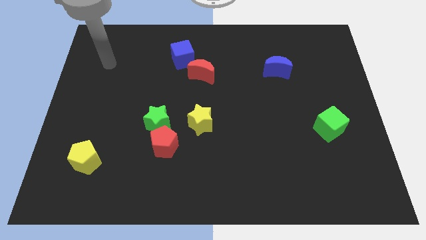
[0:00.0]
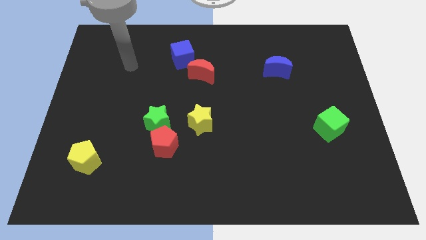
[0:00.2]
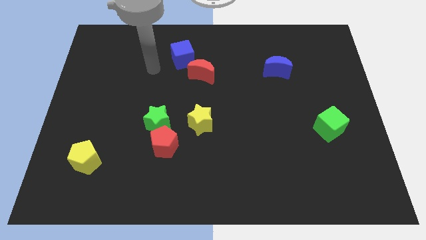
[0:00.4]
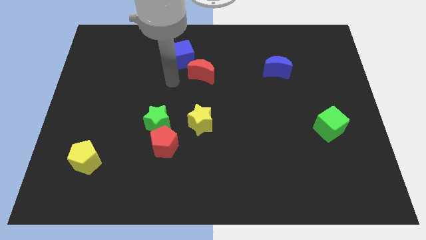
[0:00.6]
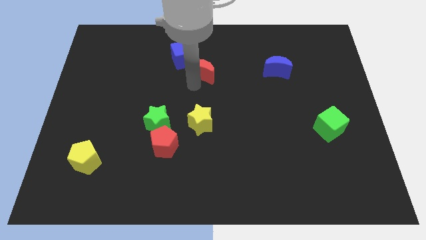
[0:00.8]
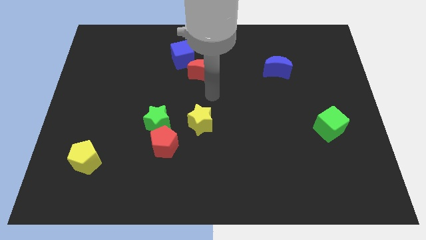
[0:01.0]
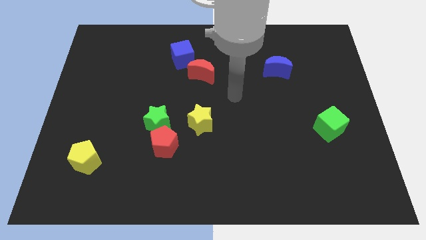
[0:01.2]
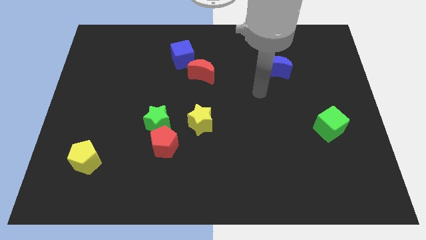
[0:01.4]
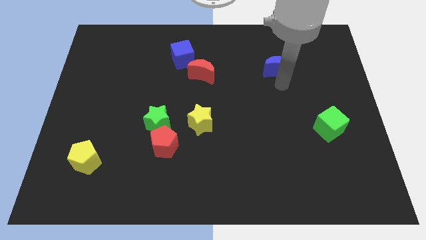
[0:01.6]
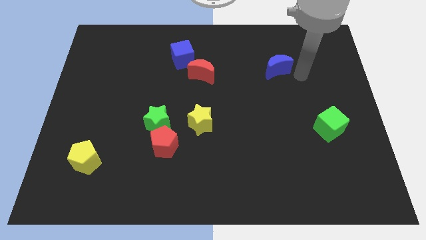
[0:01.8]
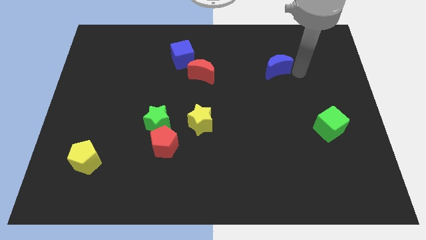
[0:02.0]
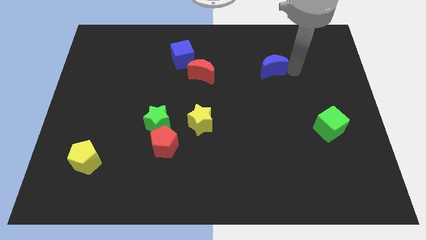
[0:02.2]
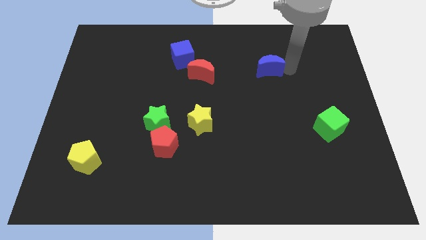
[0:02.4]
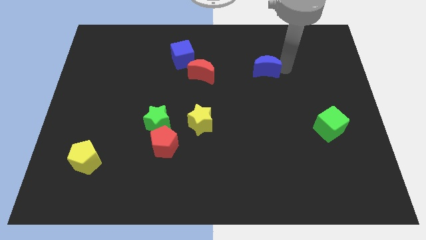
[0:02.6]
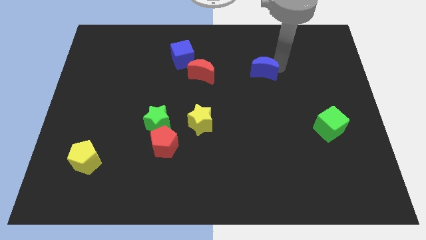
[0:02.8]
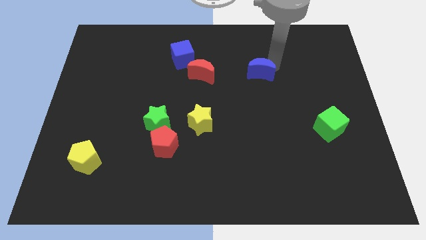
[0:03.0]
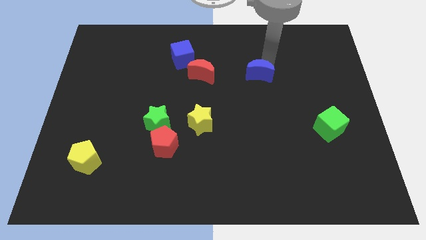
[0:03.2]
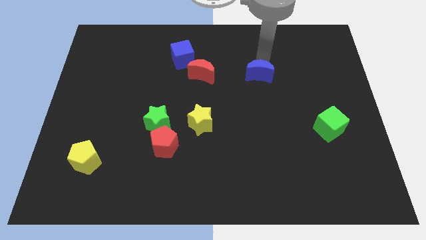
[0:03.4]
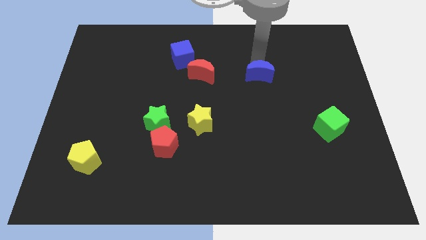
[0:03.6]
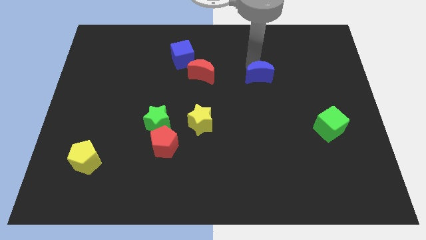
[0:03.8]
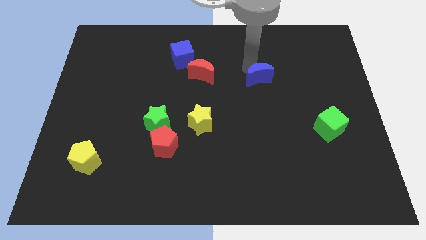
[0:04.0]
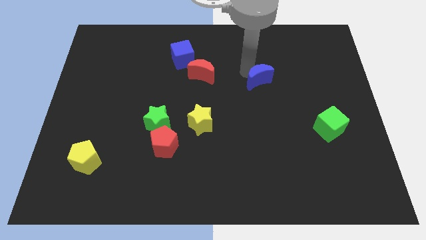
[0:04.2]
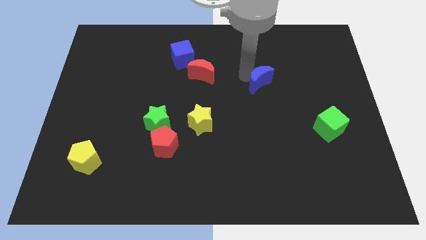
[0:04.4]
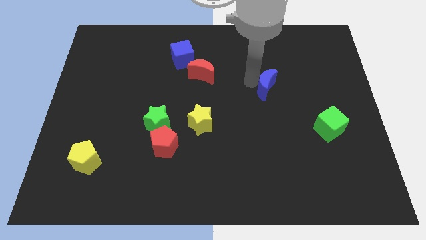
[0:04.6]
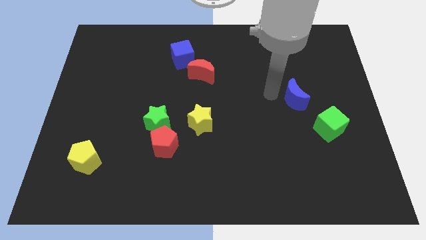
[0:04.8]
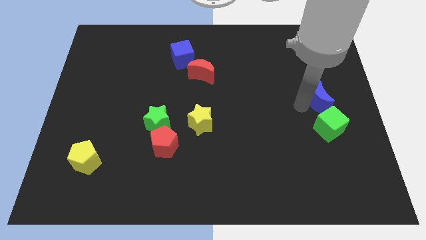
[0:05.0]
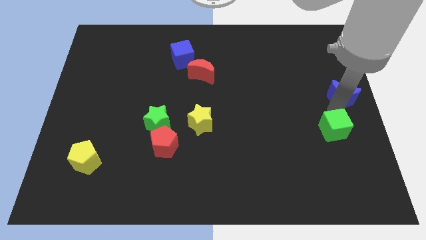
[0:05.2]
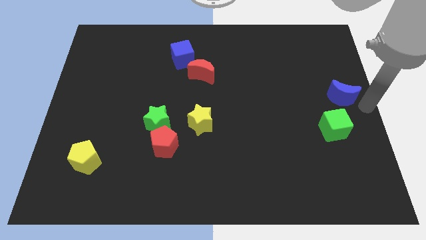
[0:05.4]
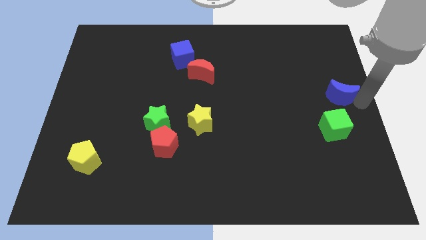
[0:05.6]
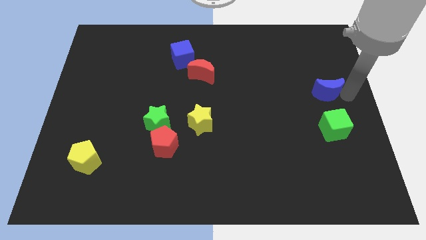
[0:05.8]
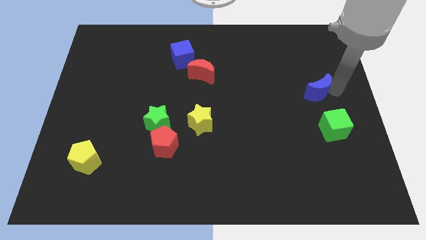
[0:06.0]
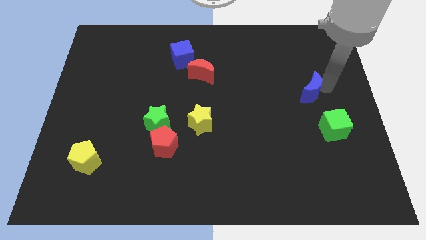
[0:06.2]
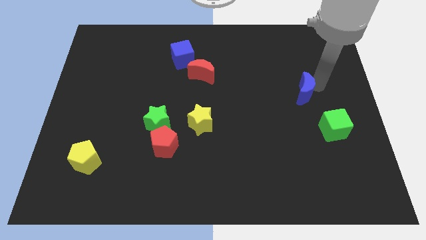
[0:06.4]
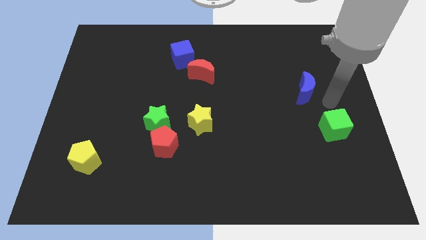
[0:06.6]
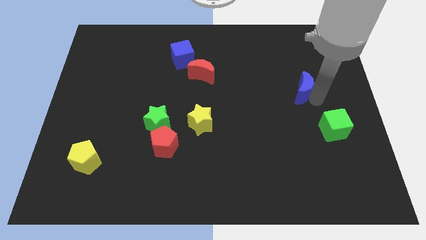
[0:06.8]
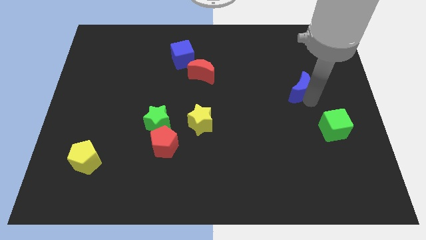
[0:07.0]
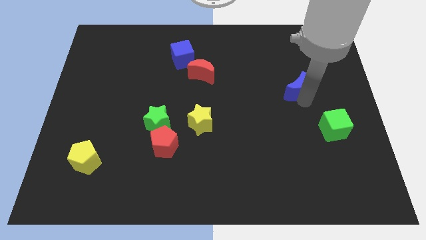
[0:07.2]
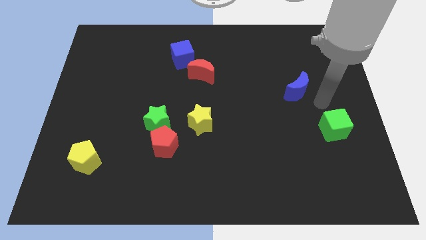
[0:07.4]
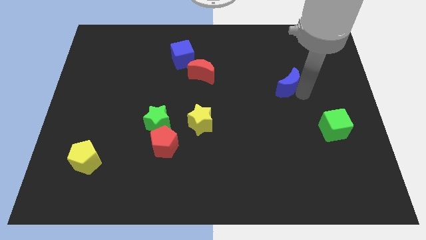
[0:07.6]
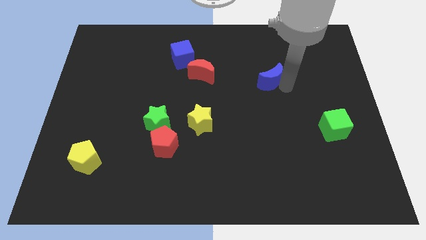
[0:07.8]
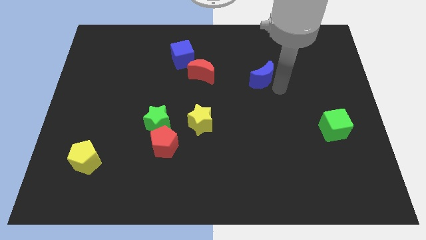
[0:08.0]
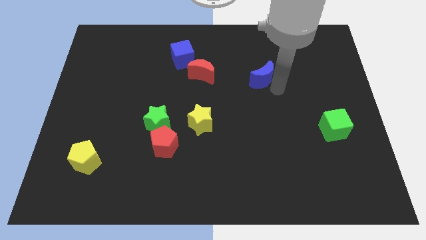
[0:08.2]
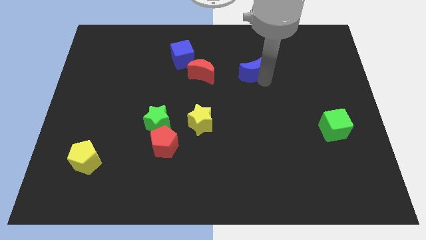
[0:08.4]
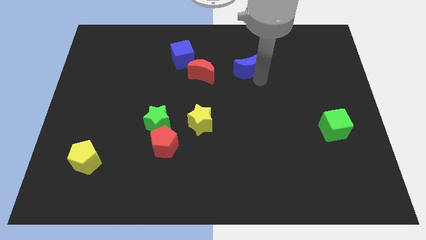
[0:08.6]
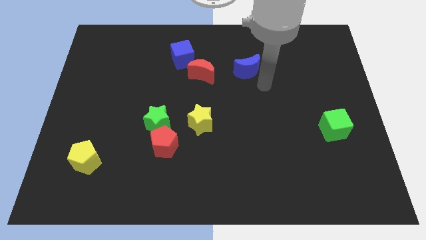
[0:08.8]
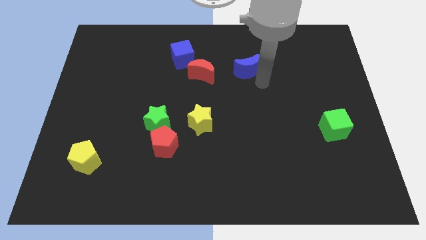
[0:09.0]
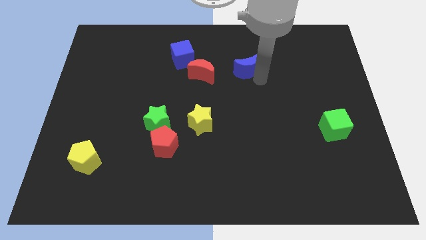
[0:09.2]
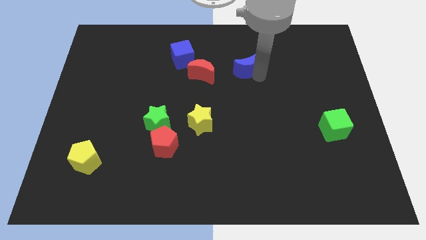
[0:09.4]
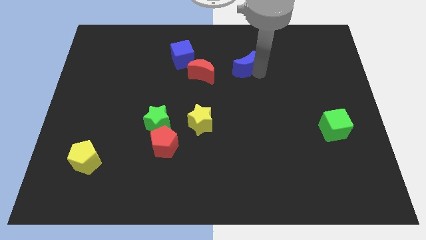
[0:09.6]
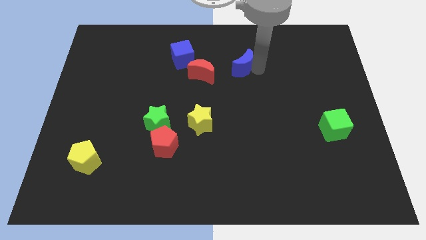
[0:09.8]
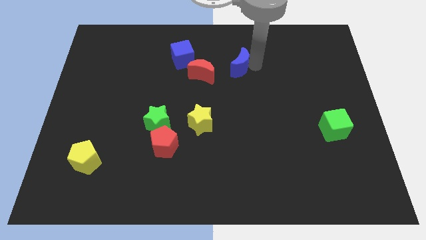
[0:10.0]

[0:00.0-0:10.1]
slide the blue moon right of the blue cube

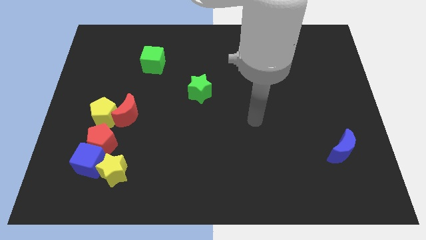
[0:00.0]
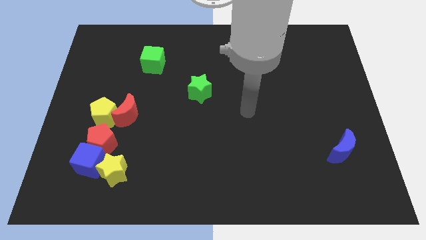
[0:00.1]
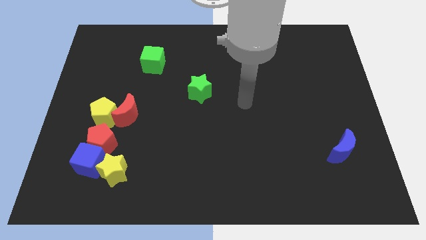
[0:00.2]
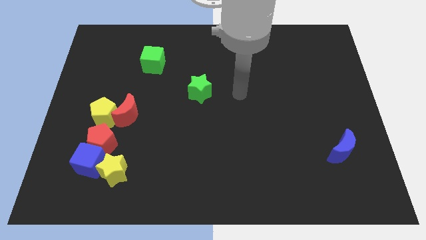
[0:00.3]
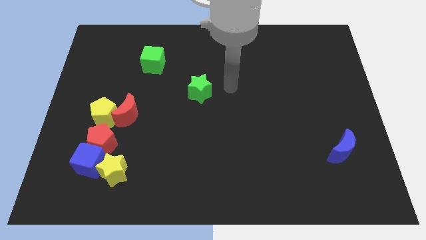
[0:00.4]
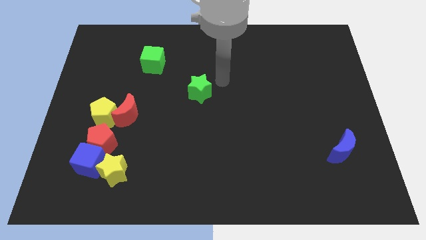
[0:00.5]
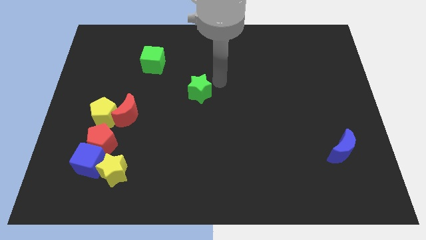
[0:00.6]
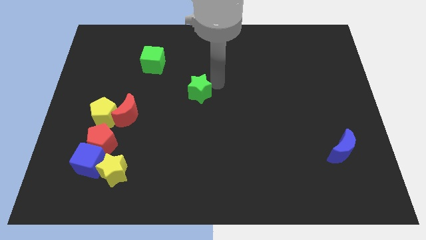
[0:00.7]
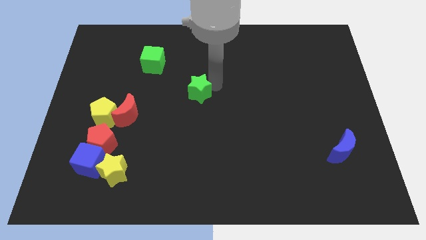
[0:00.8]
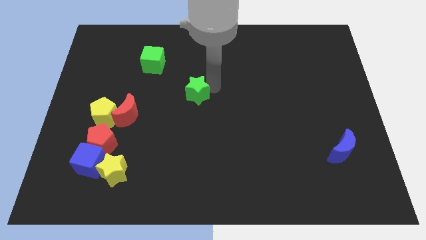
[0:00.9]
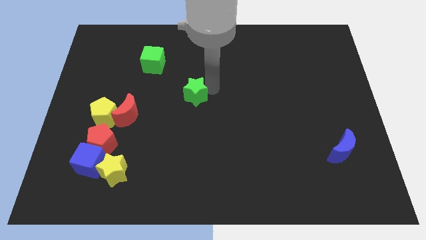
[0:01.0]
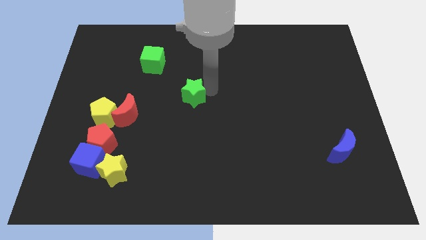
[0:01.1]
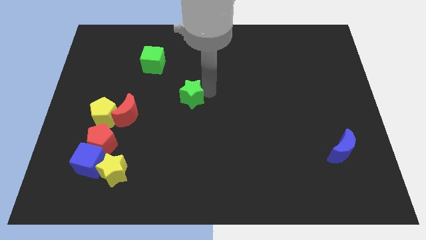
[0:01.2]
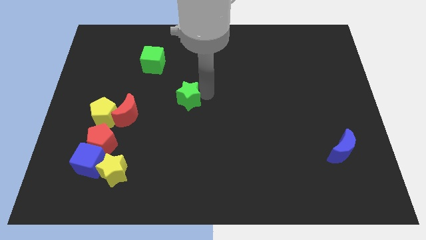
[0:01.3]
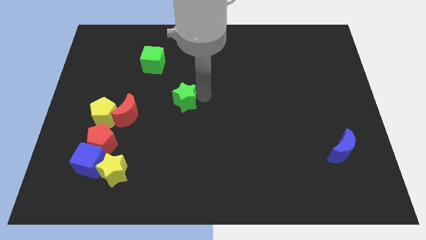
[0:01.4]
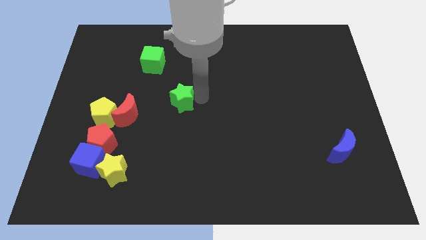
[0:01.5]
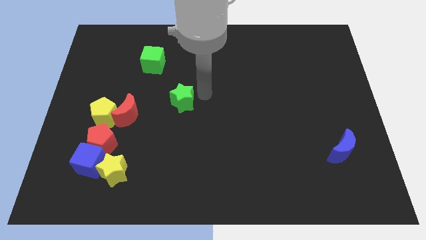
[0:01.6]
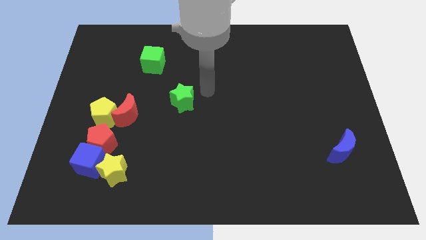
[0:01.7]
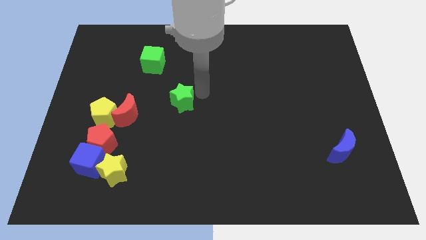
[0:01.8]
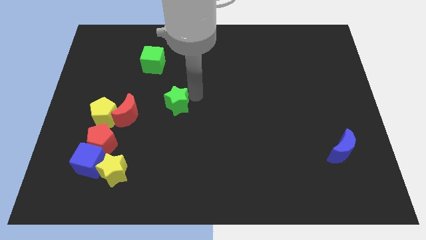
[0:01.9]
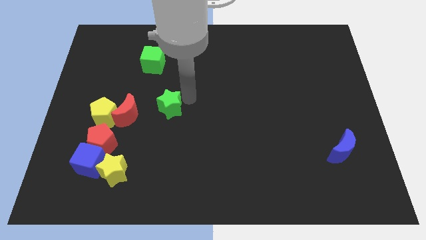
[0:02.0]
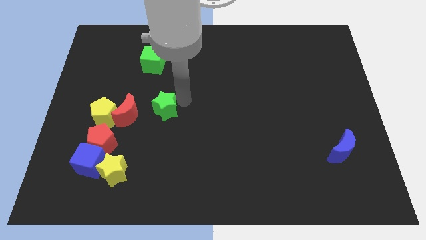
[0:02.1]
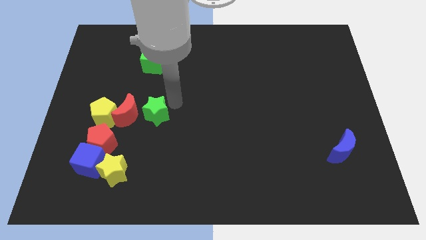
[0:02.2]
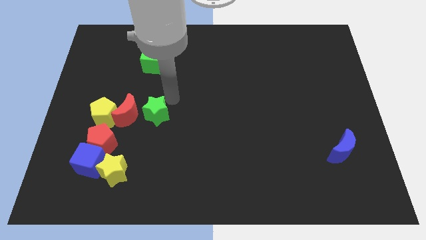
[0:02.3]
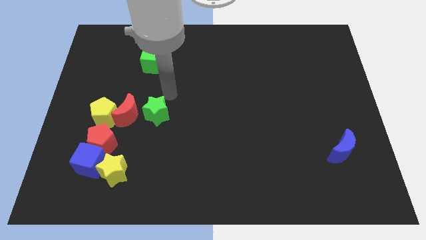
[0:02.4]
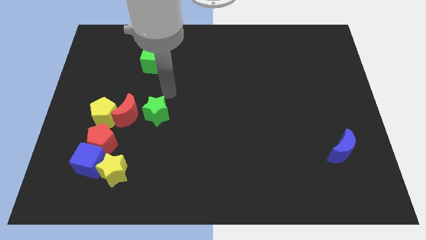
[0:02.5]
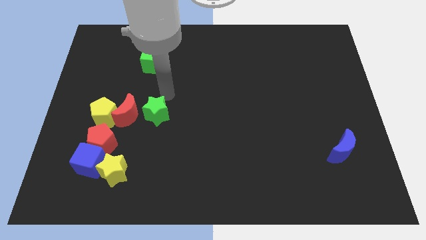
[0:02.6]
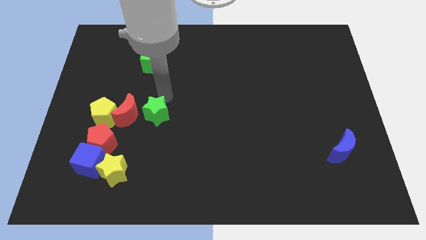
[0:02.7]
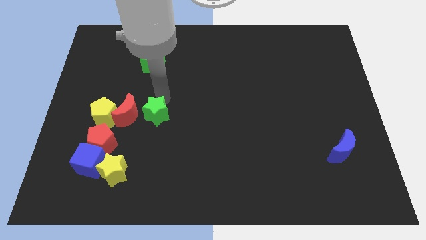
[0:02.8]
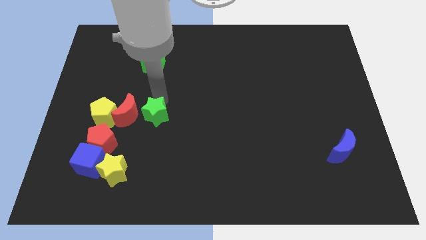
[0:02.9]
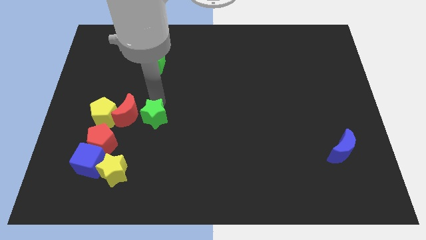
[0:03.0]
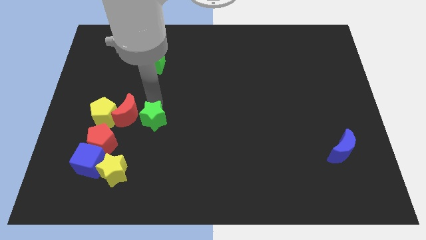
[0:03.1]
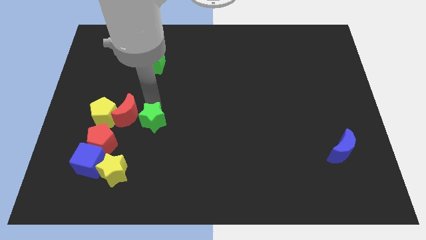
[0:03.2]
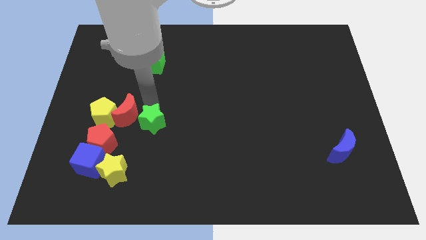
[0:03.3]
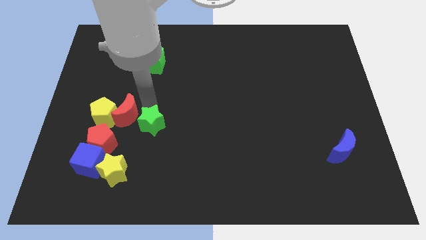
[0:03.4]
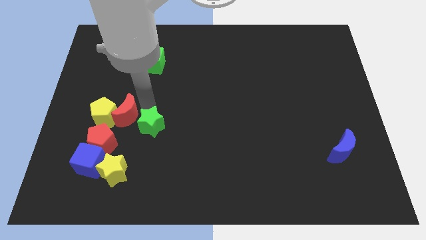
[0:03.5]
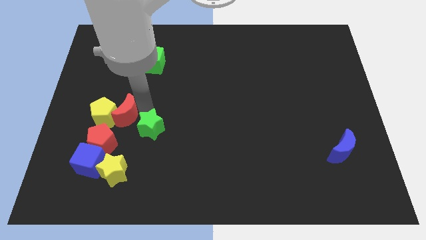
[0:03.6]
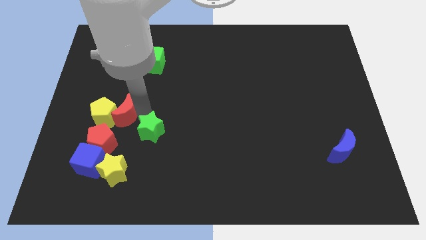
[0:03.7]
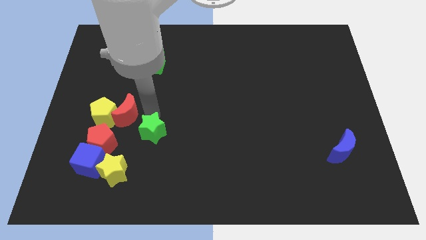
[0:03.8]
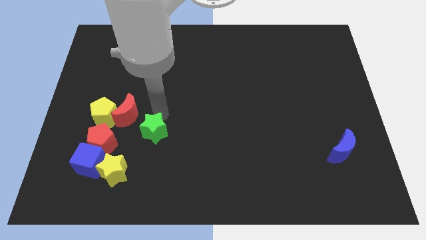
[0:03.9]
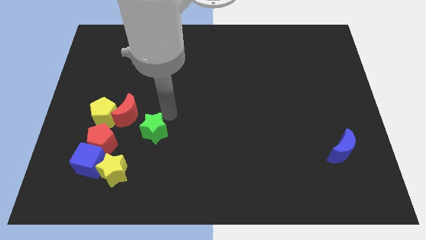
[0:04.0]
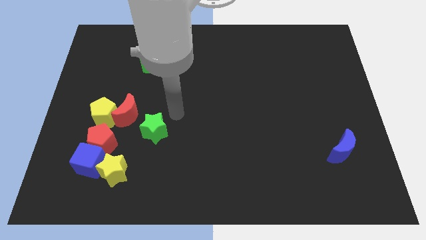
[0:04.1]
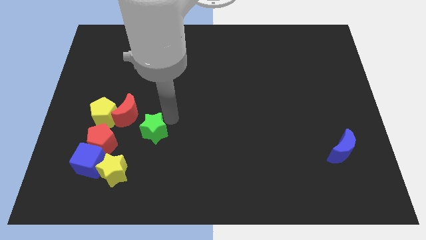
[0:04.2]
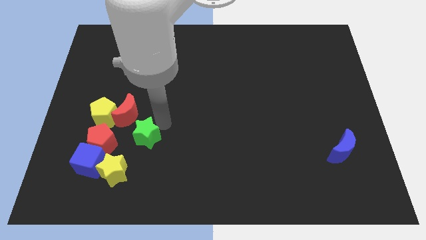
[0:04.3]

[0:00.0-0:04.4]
move the green star to the bottom side of the red moon
